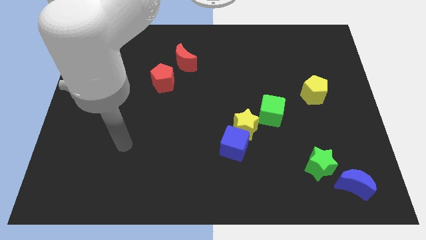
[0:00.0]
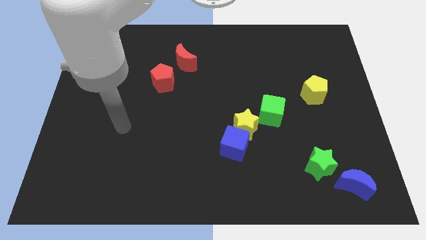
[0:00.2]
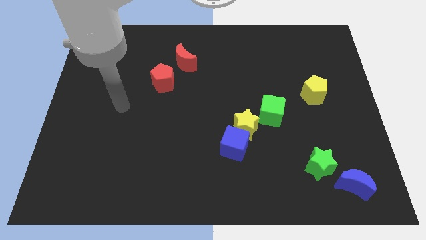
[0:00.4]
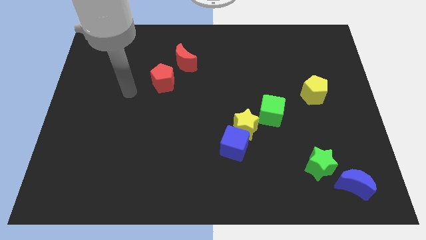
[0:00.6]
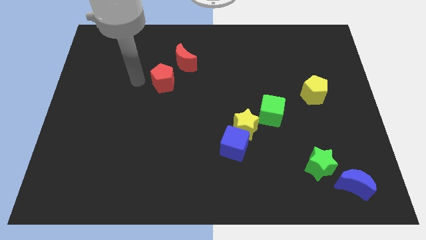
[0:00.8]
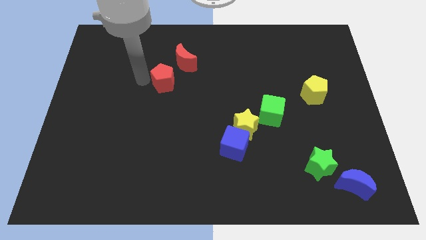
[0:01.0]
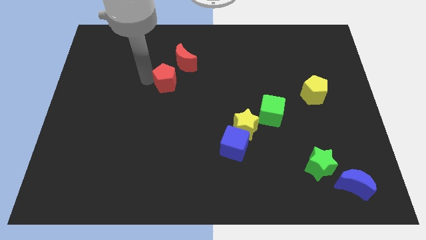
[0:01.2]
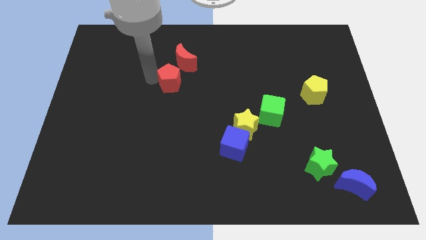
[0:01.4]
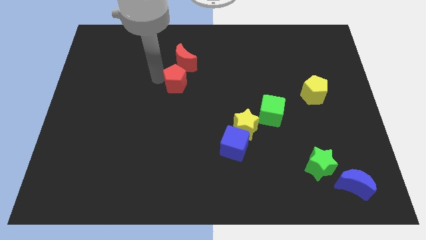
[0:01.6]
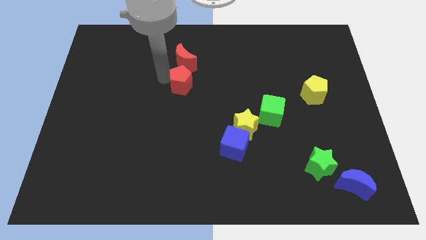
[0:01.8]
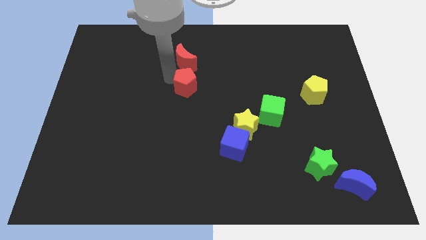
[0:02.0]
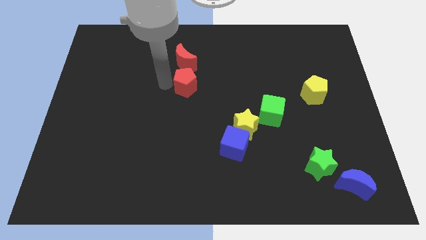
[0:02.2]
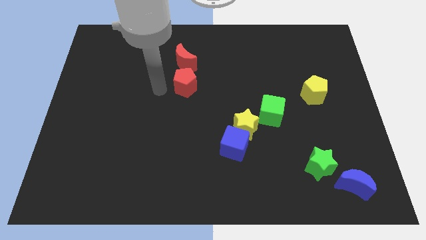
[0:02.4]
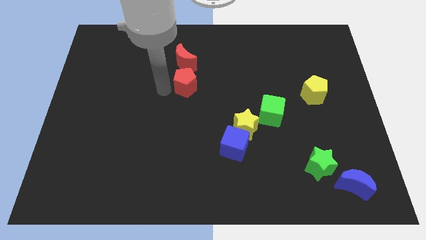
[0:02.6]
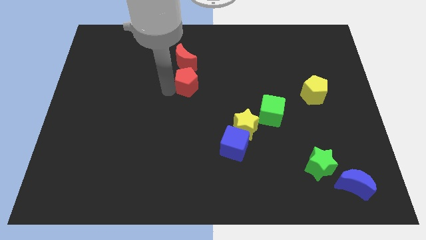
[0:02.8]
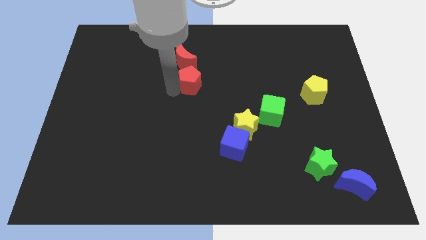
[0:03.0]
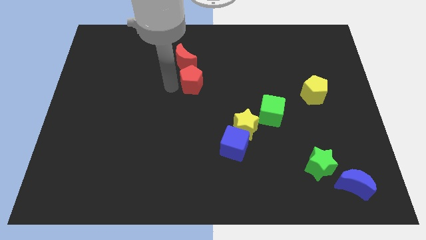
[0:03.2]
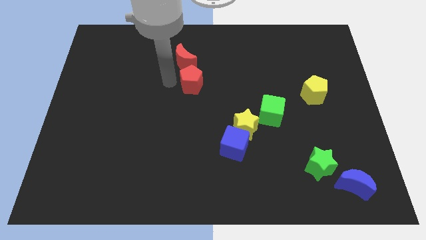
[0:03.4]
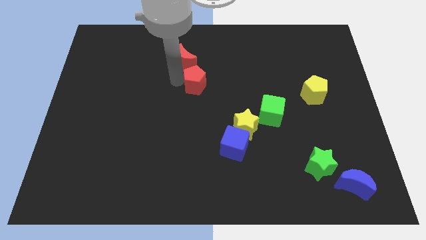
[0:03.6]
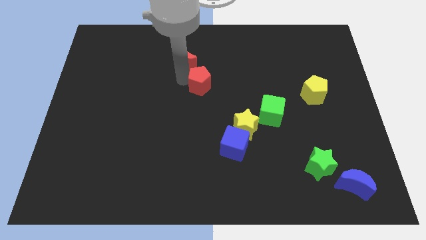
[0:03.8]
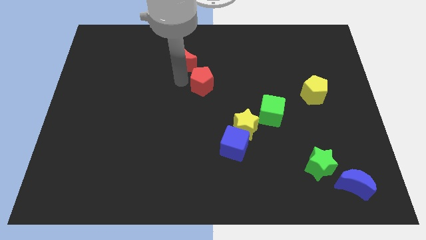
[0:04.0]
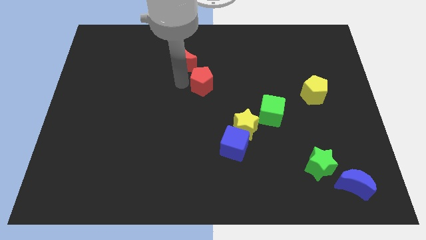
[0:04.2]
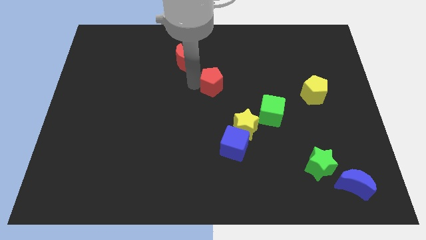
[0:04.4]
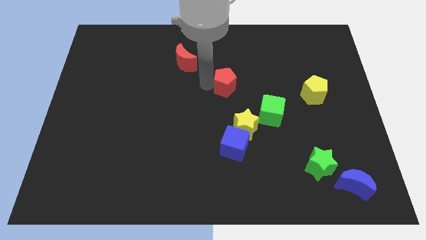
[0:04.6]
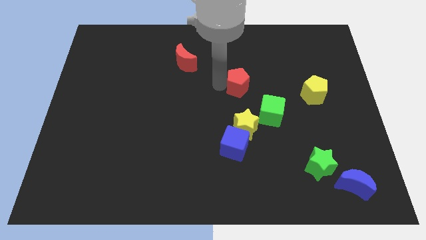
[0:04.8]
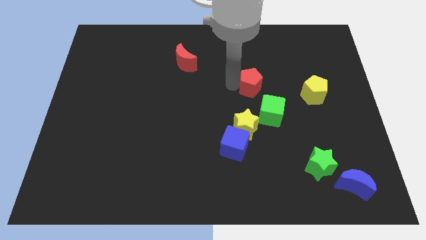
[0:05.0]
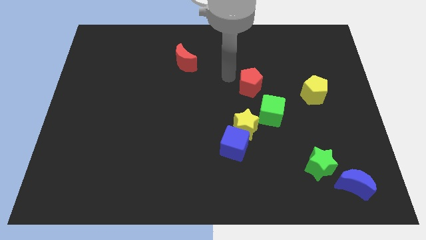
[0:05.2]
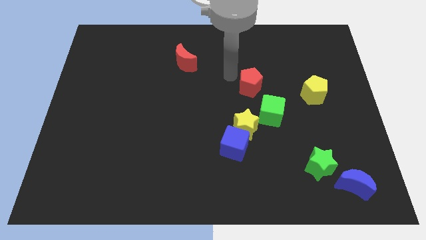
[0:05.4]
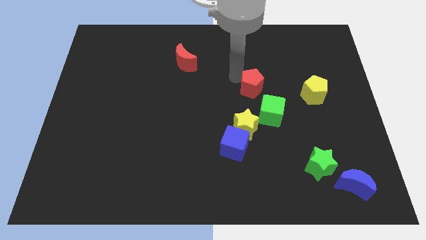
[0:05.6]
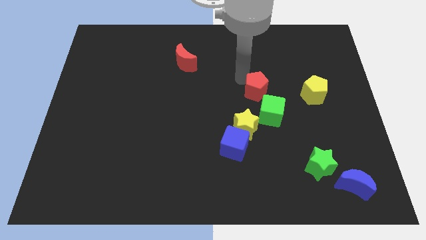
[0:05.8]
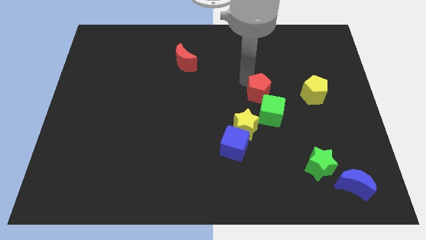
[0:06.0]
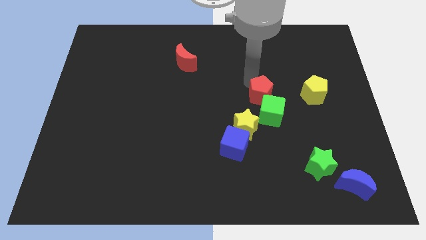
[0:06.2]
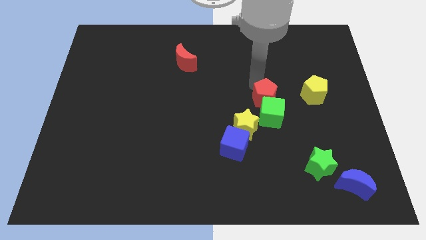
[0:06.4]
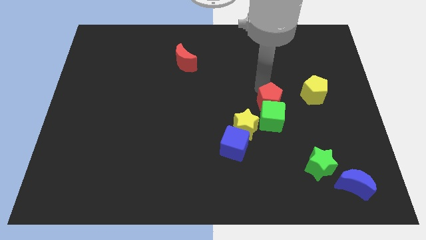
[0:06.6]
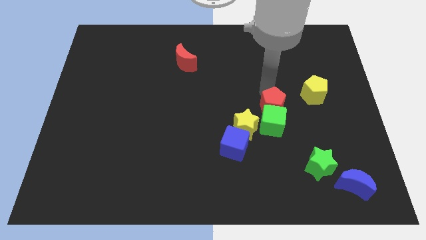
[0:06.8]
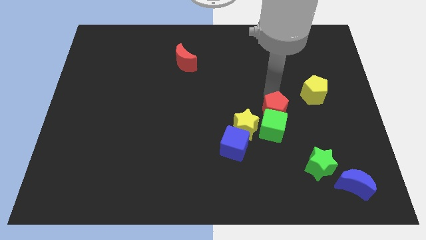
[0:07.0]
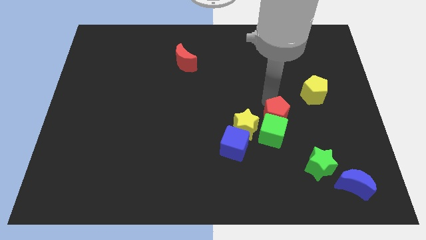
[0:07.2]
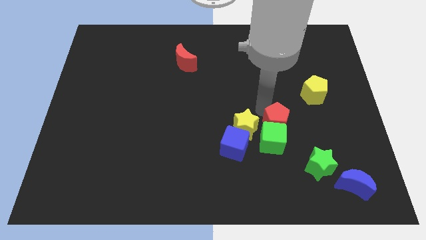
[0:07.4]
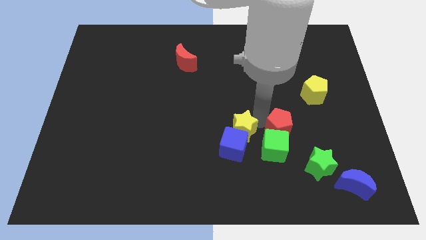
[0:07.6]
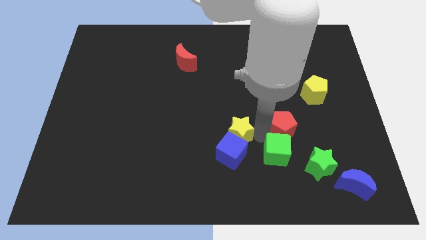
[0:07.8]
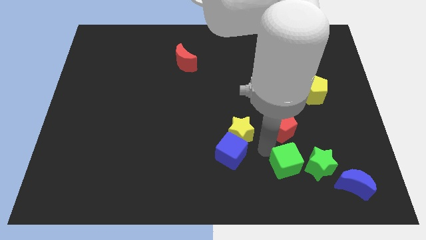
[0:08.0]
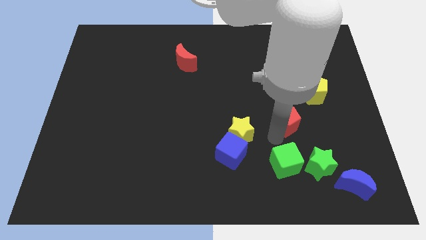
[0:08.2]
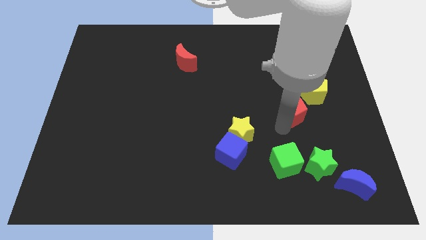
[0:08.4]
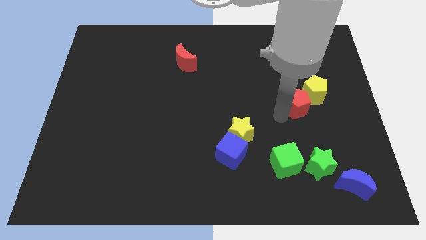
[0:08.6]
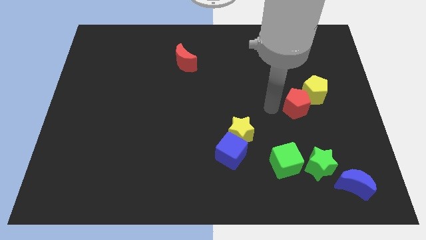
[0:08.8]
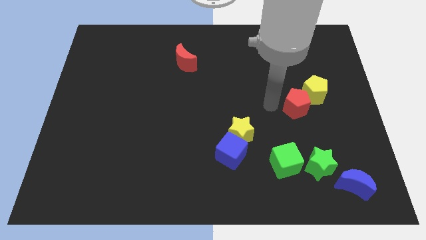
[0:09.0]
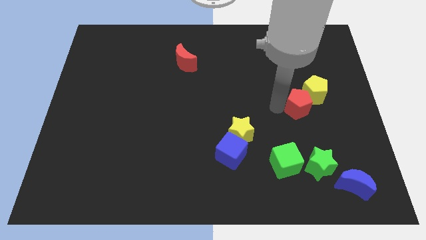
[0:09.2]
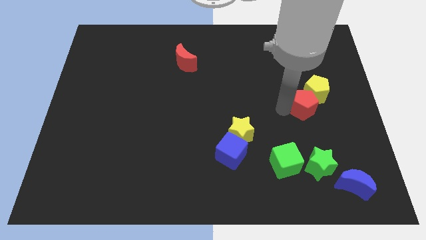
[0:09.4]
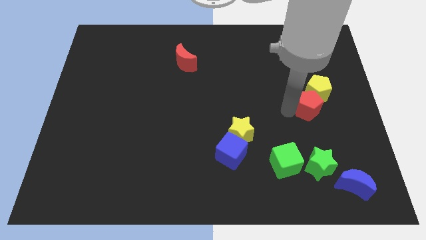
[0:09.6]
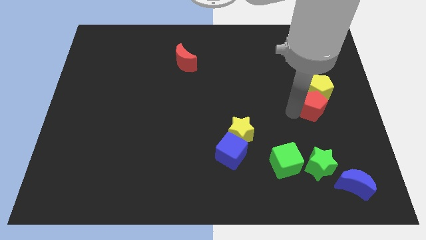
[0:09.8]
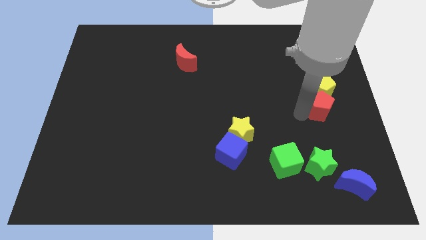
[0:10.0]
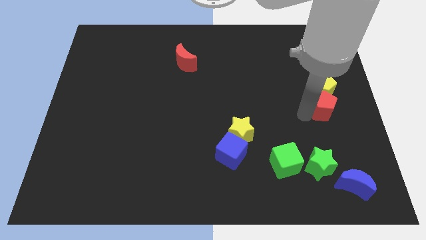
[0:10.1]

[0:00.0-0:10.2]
put the red pentagon to the center right

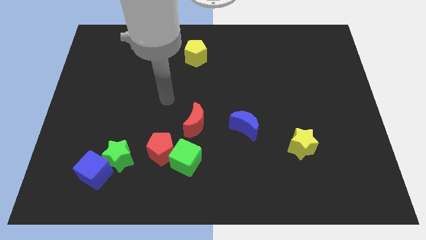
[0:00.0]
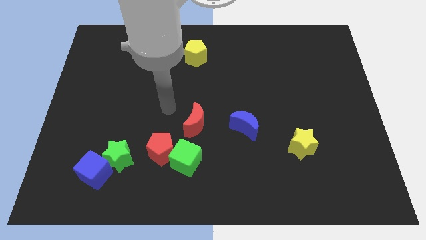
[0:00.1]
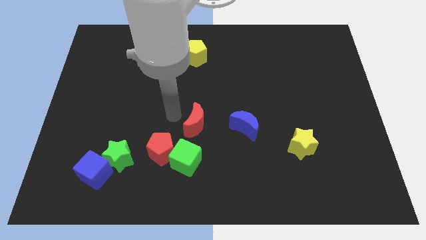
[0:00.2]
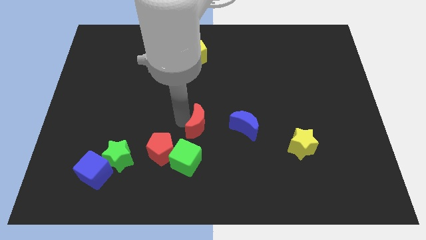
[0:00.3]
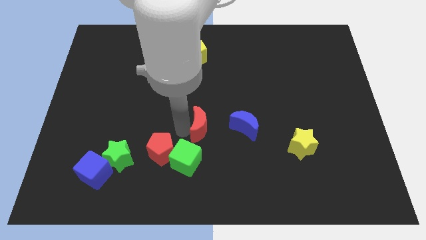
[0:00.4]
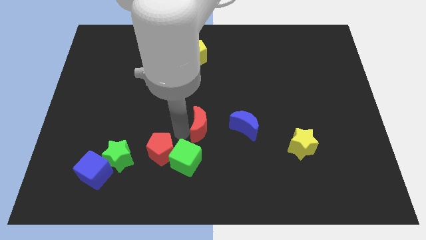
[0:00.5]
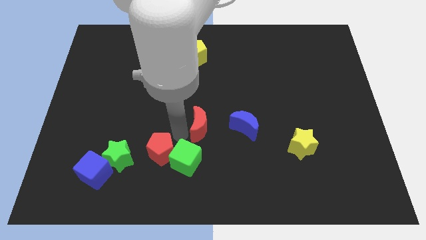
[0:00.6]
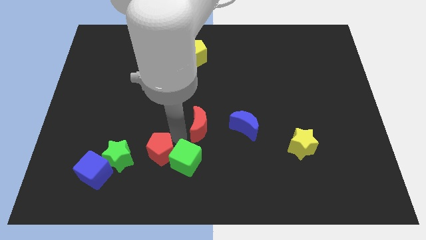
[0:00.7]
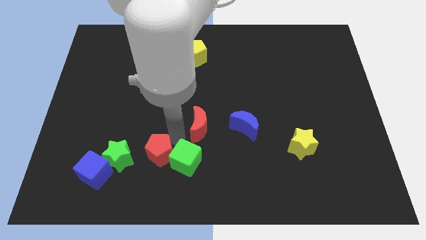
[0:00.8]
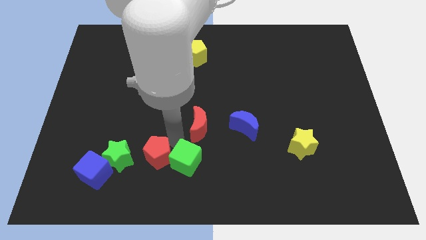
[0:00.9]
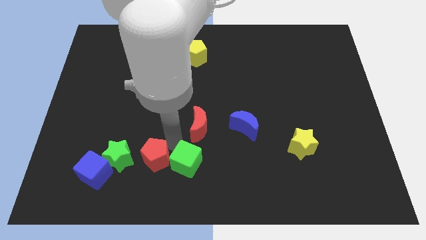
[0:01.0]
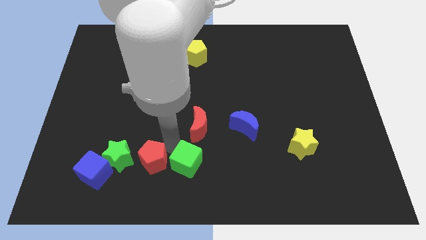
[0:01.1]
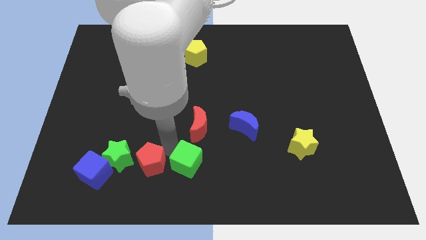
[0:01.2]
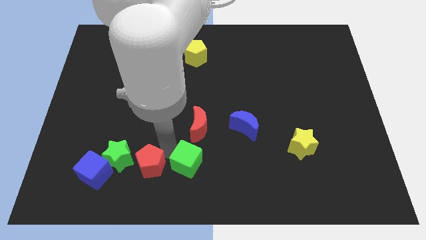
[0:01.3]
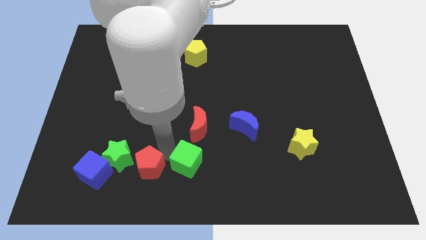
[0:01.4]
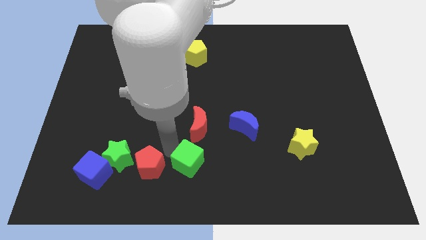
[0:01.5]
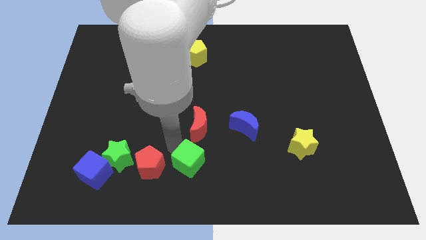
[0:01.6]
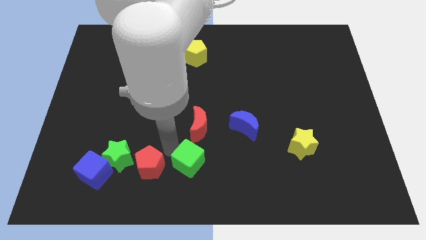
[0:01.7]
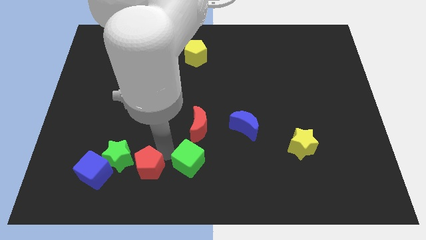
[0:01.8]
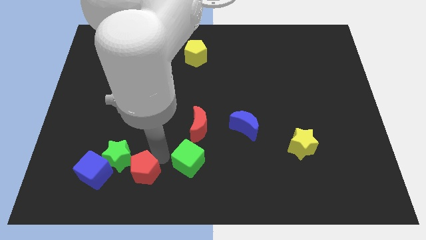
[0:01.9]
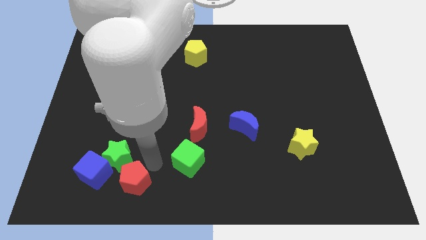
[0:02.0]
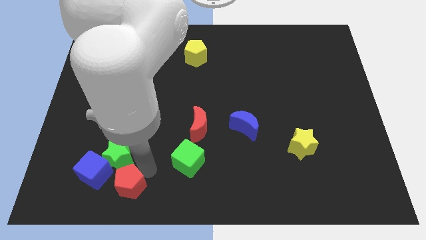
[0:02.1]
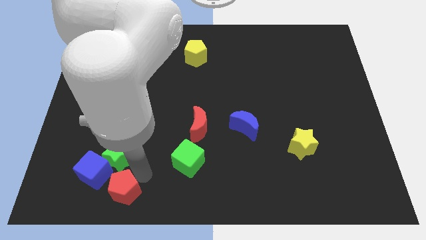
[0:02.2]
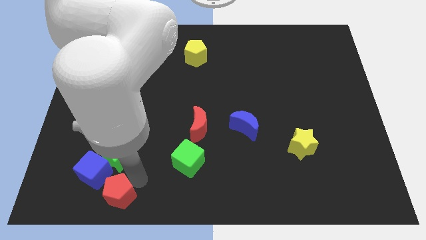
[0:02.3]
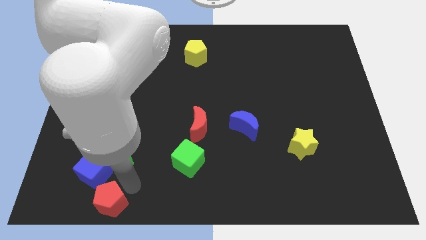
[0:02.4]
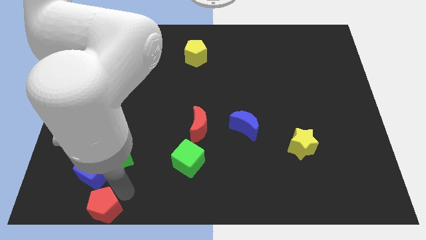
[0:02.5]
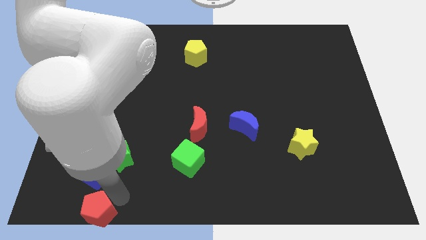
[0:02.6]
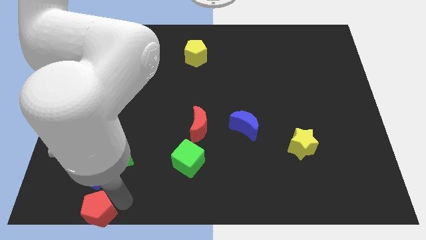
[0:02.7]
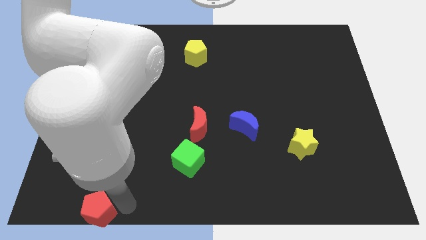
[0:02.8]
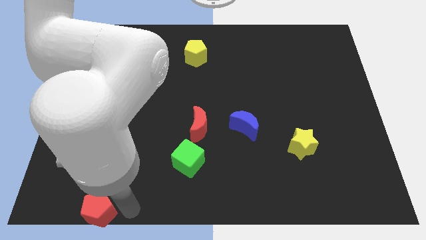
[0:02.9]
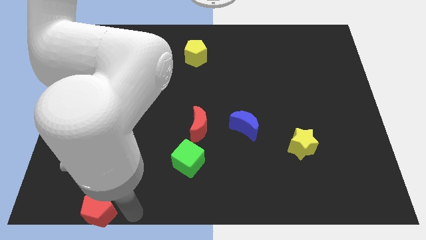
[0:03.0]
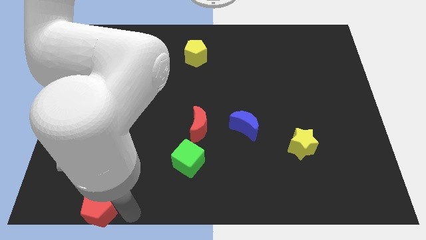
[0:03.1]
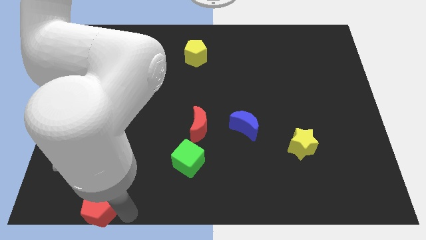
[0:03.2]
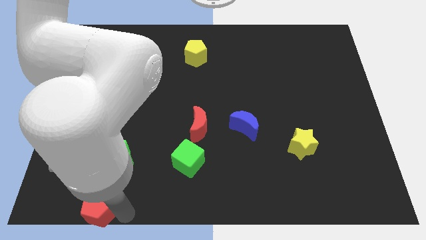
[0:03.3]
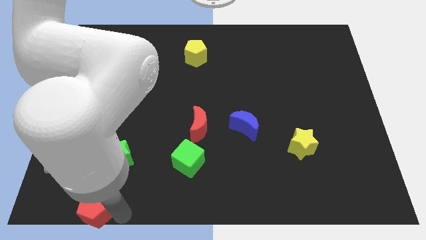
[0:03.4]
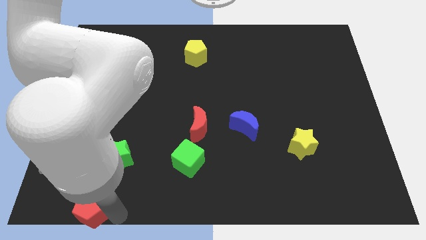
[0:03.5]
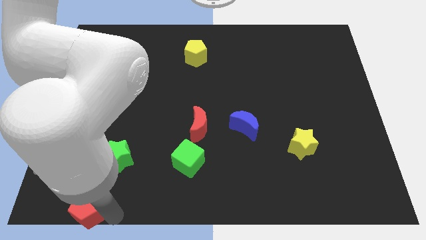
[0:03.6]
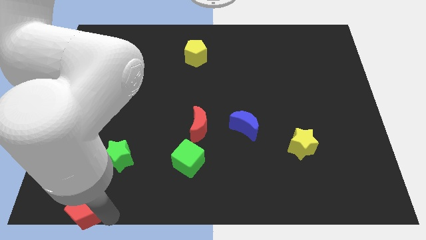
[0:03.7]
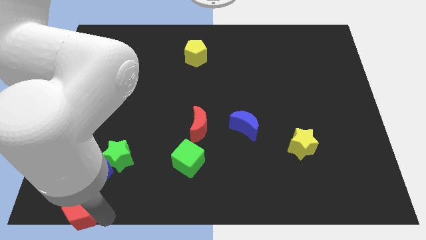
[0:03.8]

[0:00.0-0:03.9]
put the red pentagon to the bottom left of the board
